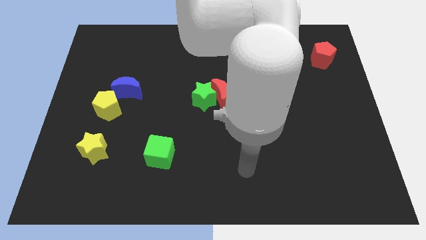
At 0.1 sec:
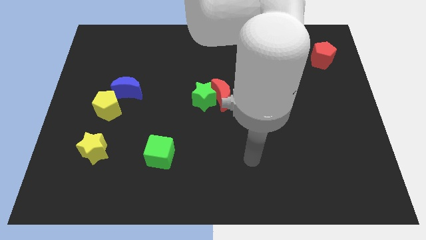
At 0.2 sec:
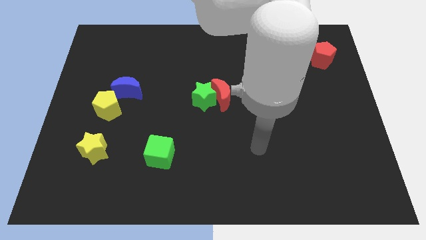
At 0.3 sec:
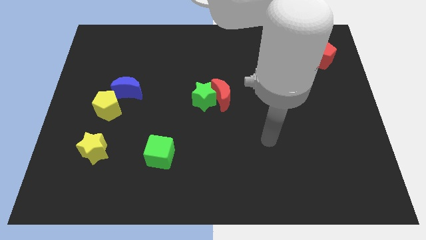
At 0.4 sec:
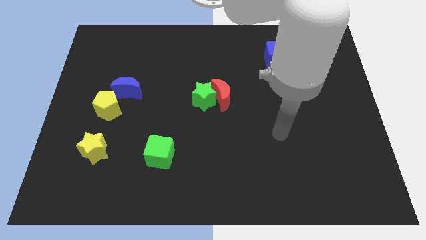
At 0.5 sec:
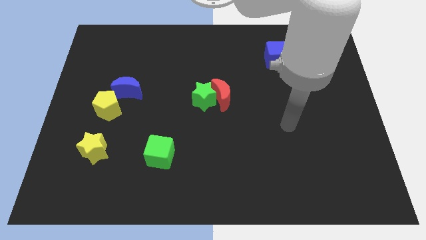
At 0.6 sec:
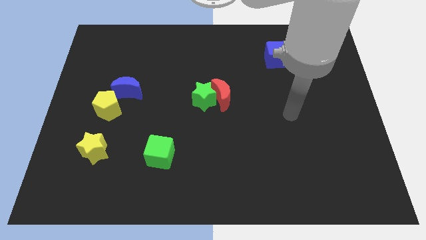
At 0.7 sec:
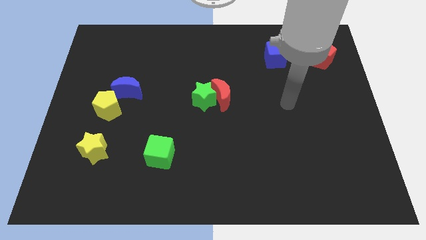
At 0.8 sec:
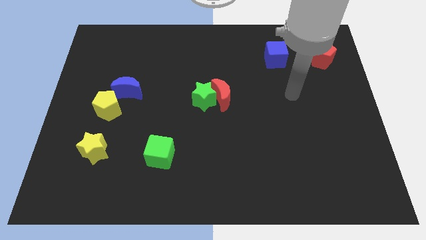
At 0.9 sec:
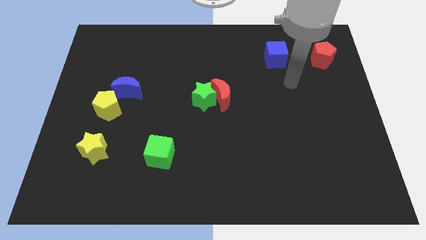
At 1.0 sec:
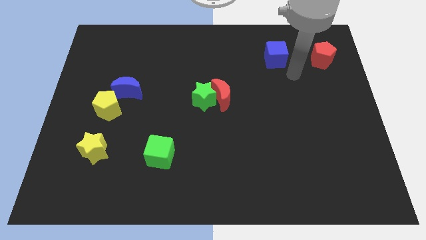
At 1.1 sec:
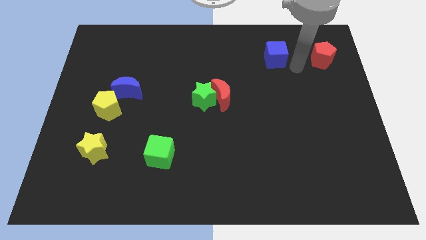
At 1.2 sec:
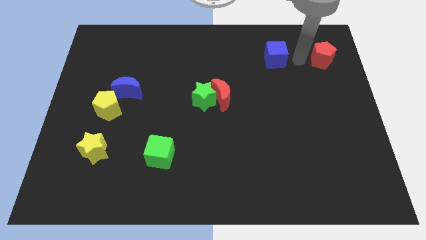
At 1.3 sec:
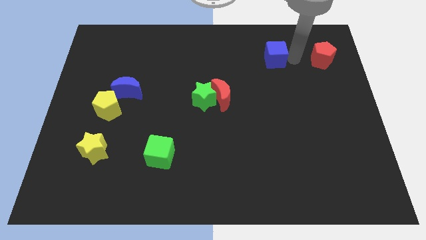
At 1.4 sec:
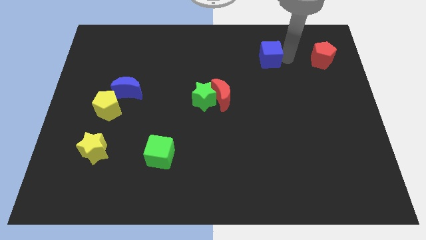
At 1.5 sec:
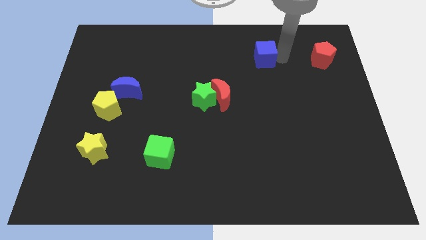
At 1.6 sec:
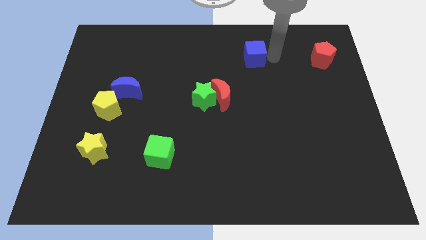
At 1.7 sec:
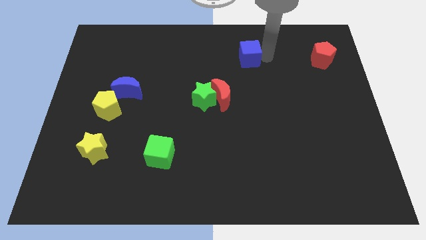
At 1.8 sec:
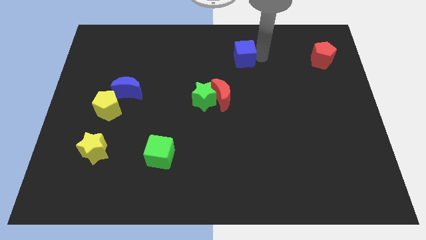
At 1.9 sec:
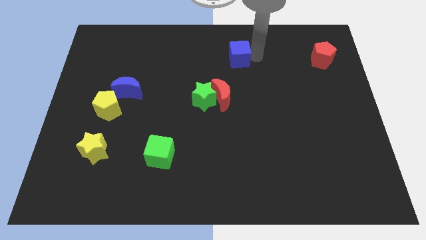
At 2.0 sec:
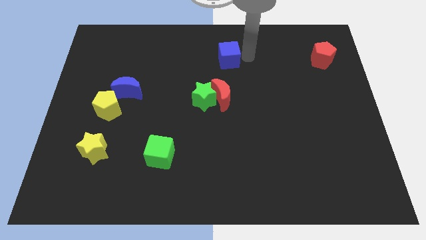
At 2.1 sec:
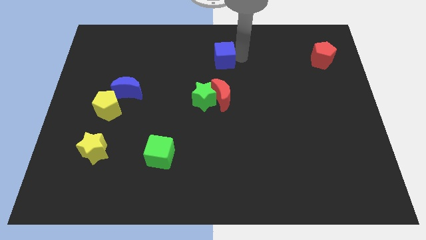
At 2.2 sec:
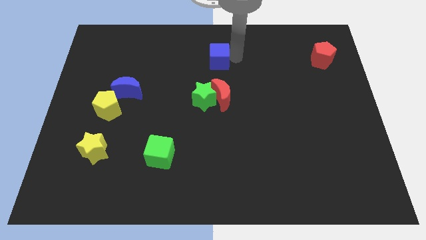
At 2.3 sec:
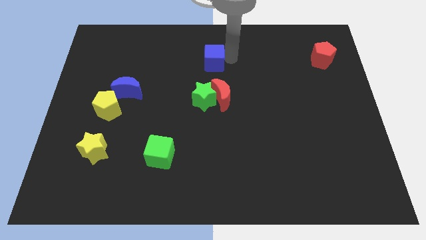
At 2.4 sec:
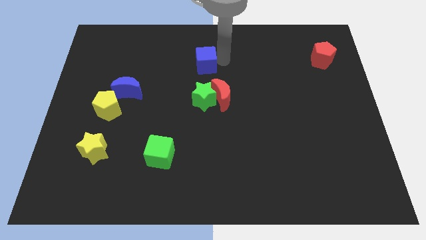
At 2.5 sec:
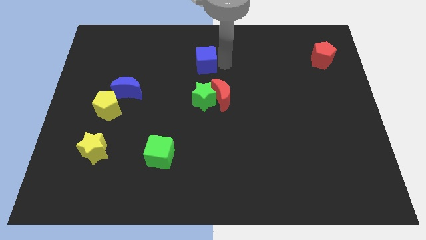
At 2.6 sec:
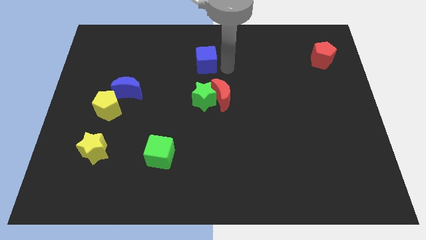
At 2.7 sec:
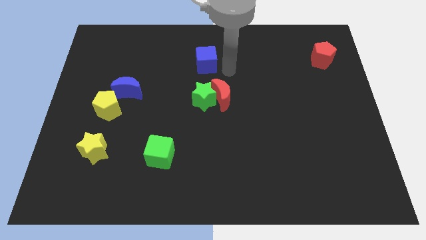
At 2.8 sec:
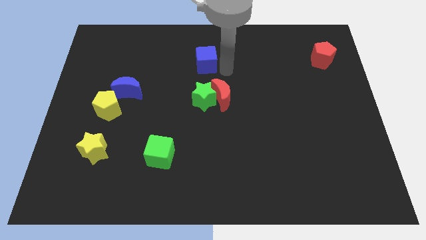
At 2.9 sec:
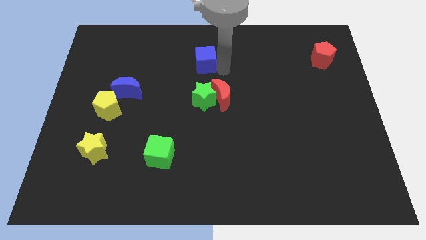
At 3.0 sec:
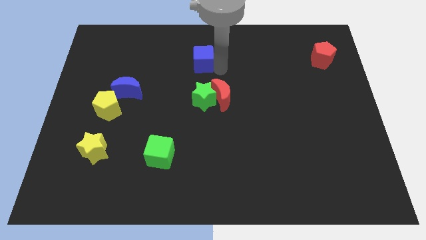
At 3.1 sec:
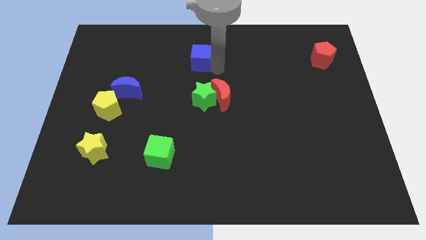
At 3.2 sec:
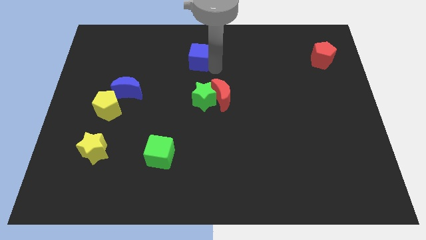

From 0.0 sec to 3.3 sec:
move the blue cube left

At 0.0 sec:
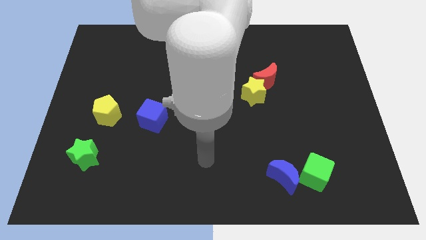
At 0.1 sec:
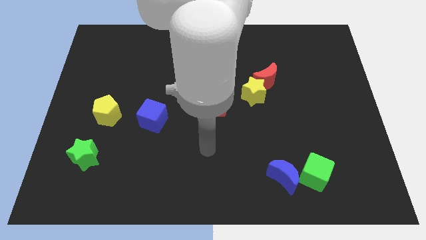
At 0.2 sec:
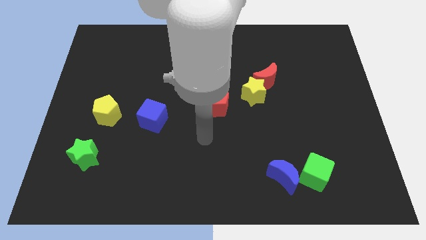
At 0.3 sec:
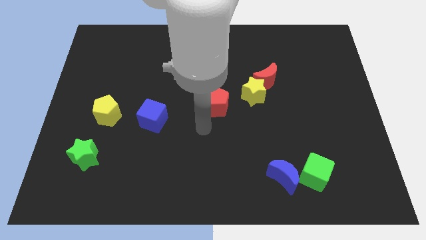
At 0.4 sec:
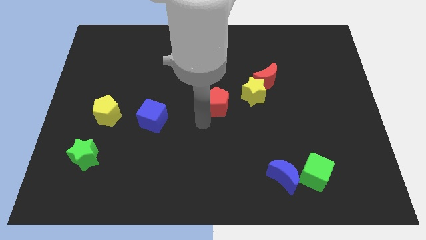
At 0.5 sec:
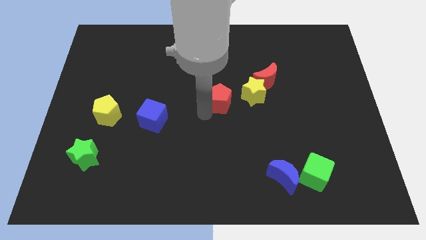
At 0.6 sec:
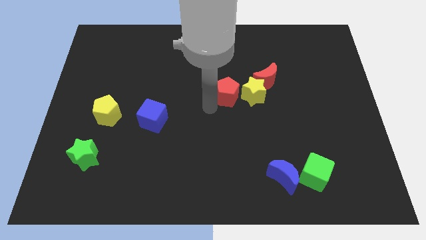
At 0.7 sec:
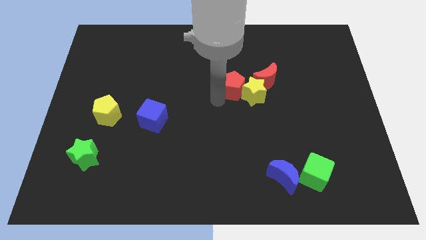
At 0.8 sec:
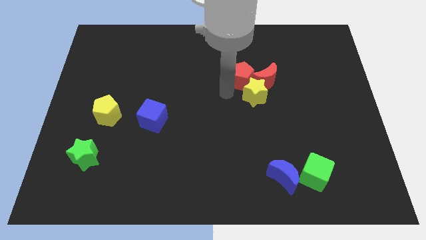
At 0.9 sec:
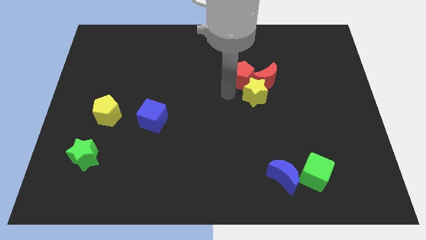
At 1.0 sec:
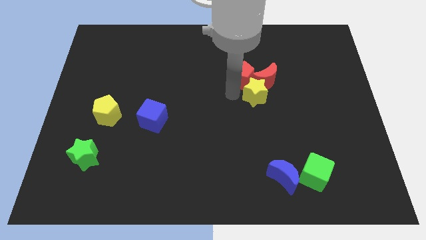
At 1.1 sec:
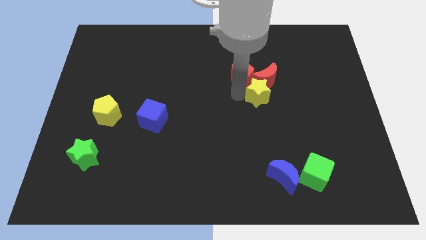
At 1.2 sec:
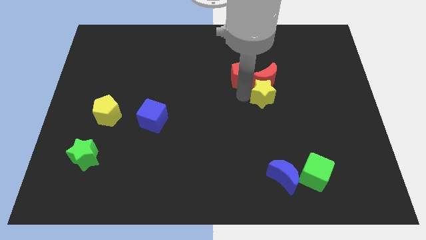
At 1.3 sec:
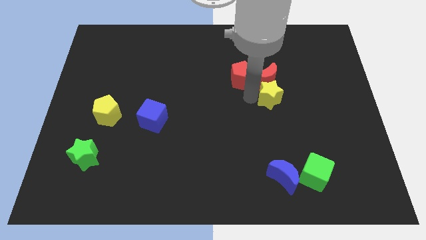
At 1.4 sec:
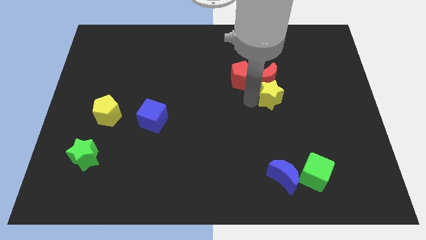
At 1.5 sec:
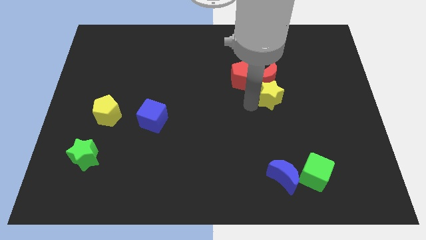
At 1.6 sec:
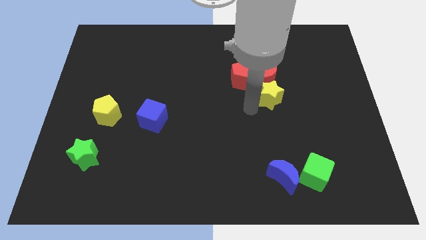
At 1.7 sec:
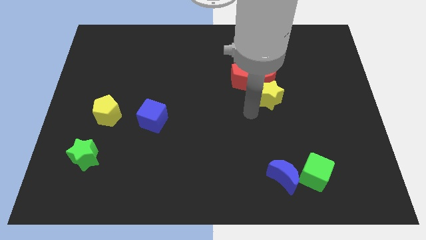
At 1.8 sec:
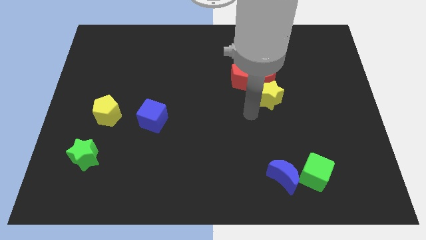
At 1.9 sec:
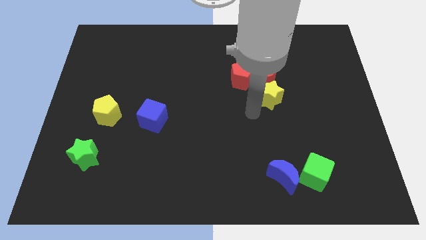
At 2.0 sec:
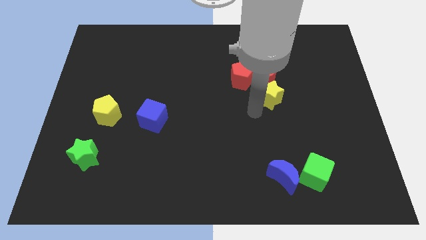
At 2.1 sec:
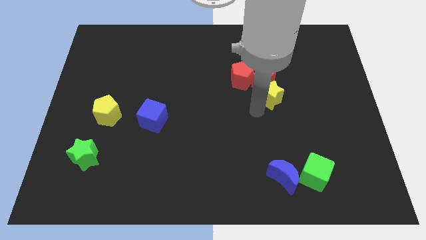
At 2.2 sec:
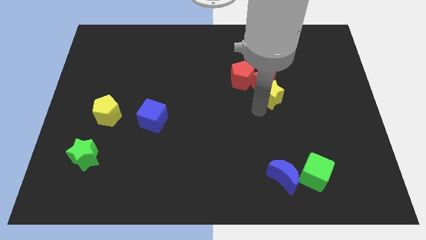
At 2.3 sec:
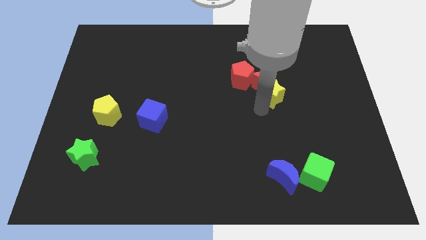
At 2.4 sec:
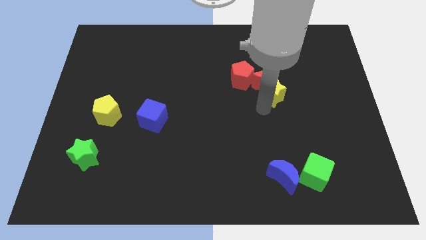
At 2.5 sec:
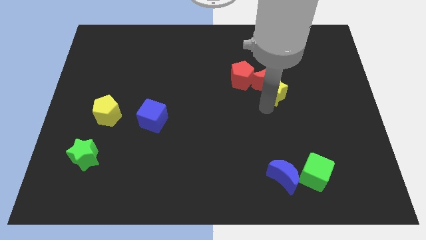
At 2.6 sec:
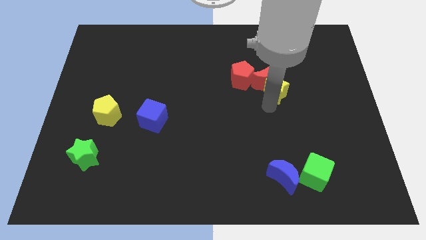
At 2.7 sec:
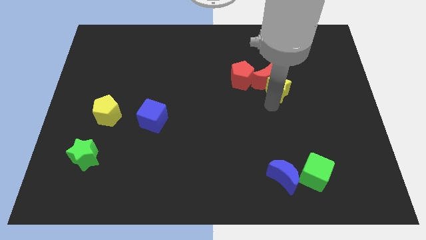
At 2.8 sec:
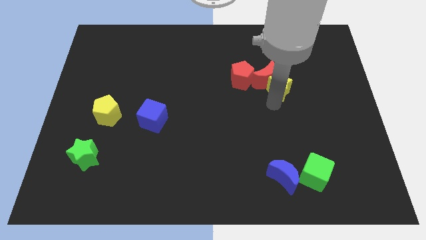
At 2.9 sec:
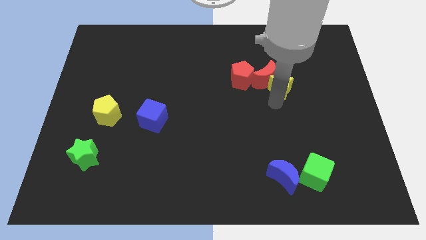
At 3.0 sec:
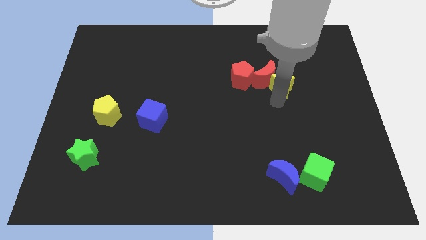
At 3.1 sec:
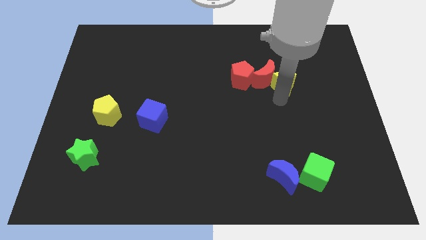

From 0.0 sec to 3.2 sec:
slide the yellow star a bit diagonally up and right

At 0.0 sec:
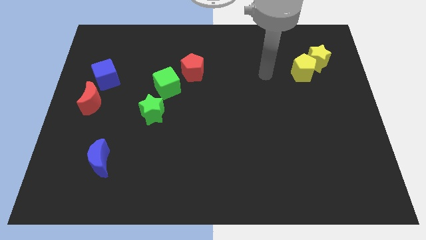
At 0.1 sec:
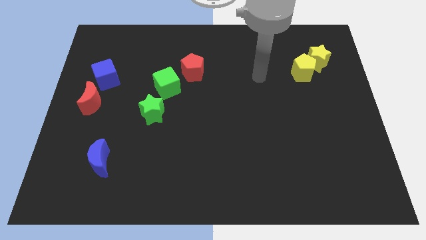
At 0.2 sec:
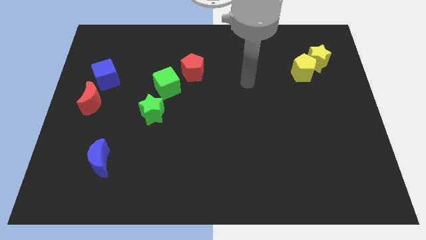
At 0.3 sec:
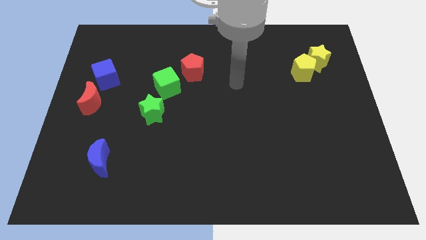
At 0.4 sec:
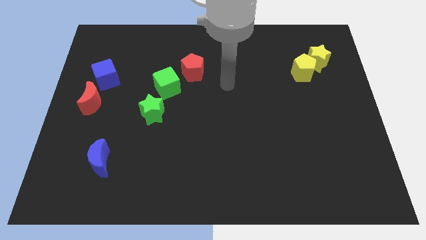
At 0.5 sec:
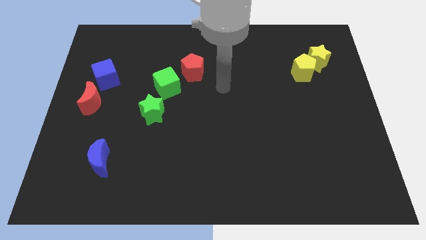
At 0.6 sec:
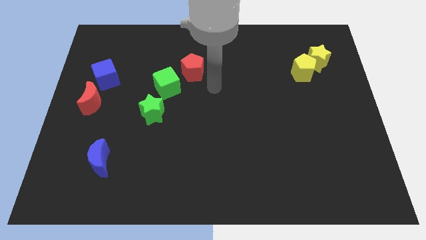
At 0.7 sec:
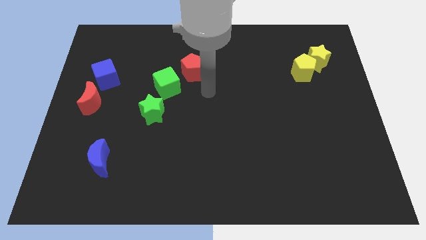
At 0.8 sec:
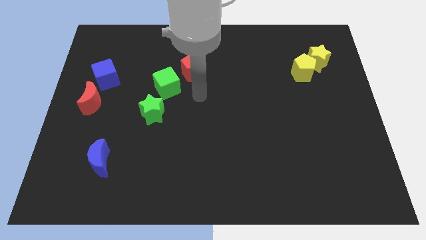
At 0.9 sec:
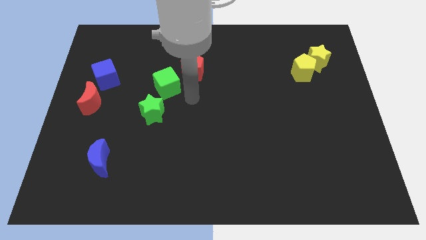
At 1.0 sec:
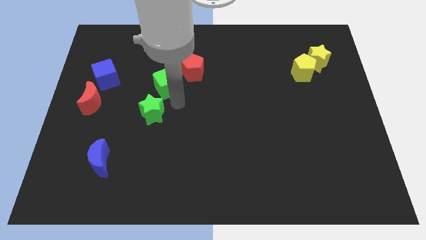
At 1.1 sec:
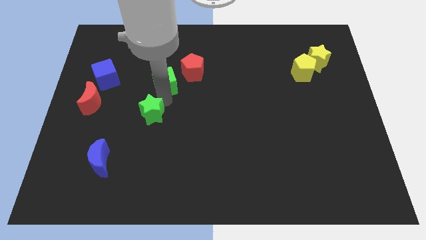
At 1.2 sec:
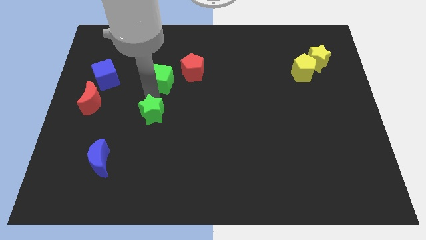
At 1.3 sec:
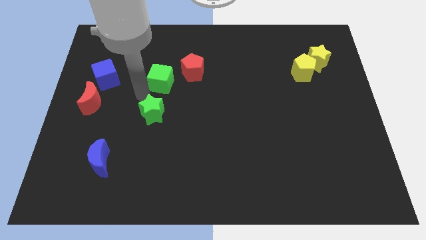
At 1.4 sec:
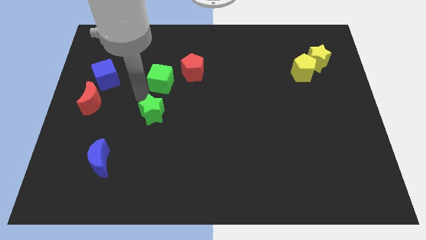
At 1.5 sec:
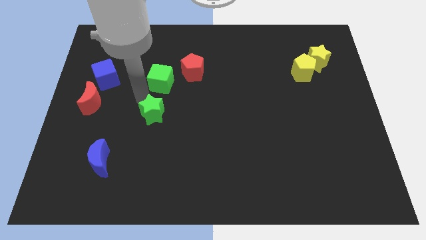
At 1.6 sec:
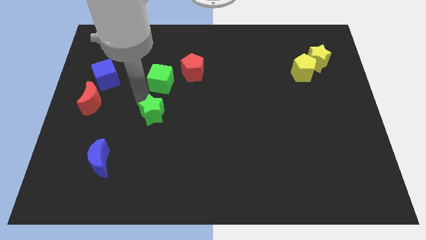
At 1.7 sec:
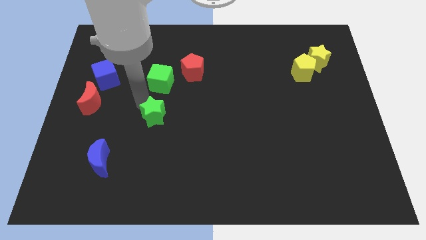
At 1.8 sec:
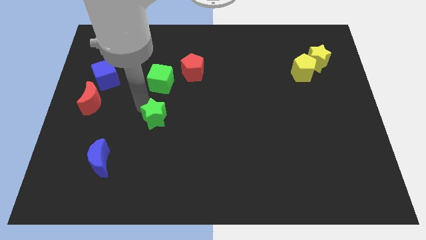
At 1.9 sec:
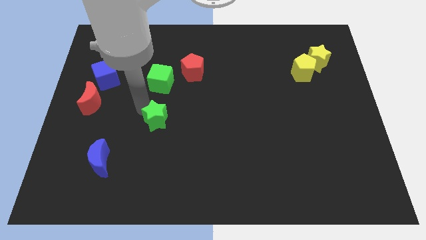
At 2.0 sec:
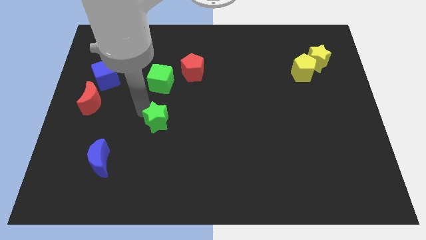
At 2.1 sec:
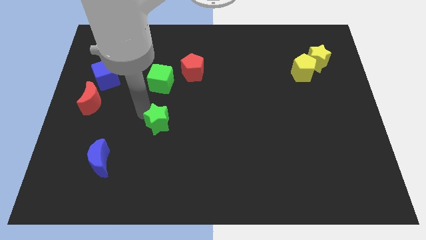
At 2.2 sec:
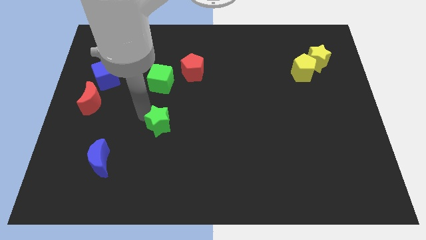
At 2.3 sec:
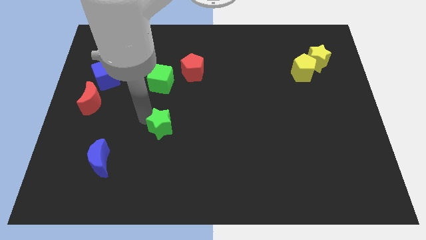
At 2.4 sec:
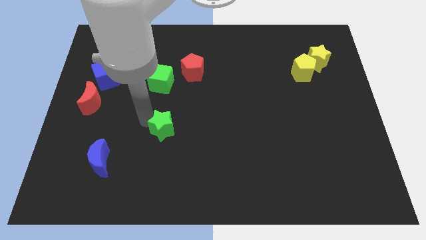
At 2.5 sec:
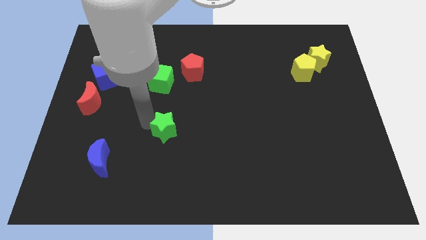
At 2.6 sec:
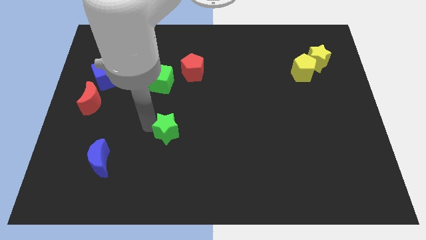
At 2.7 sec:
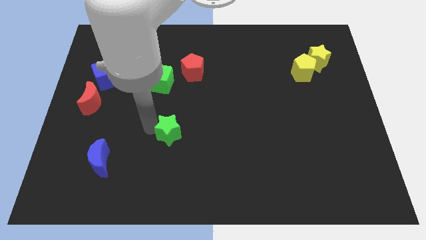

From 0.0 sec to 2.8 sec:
move the green star down and then right slightly

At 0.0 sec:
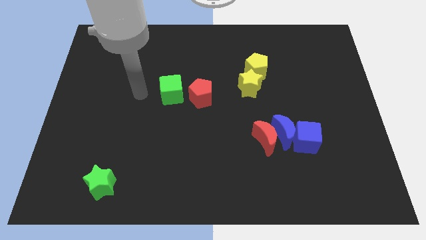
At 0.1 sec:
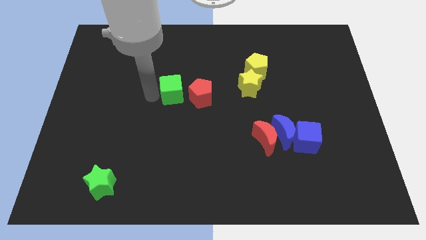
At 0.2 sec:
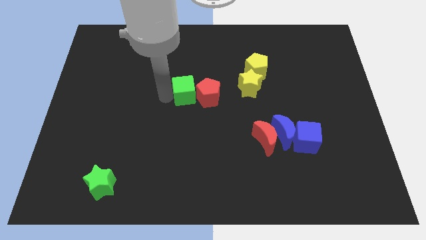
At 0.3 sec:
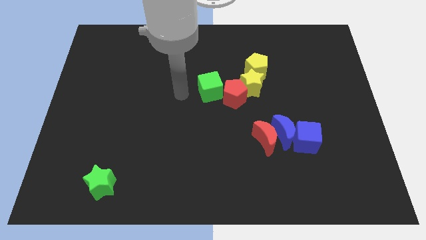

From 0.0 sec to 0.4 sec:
slightly move the red pentagon right
